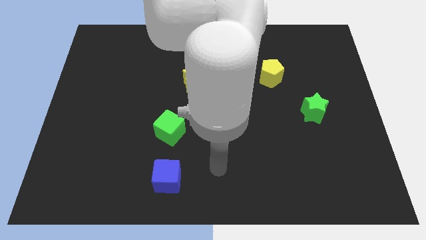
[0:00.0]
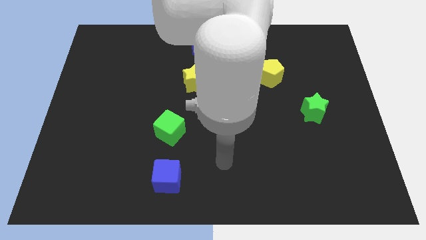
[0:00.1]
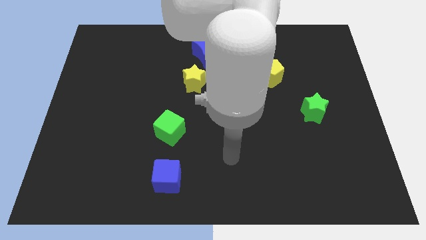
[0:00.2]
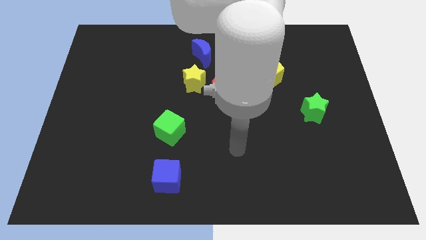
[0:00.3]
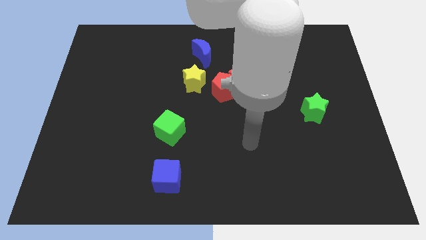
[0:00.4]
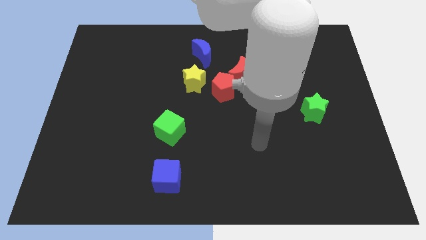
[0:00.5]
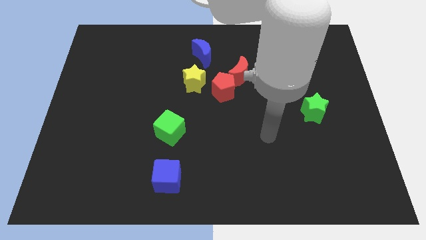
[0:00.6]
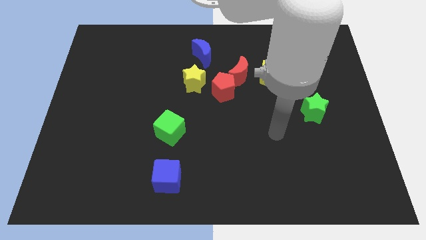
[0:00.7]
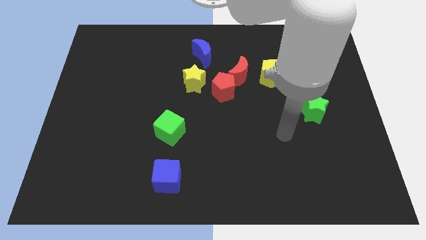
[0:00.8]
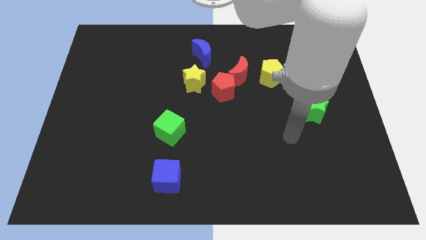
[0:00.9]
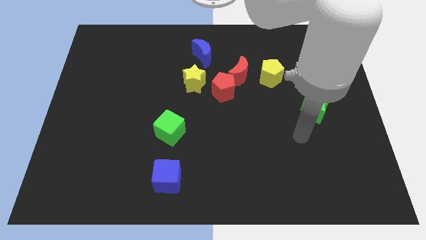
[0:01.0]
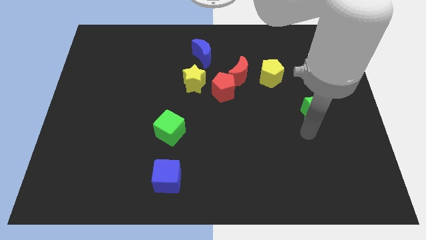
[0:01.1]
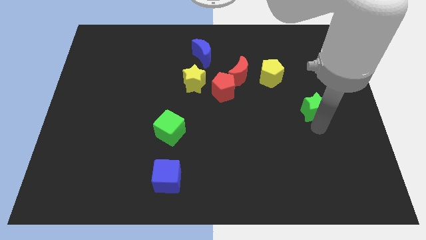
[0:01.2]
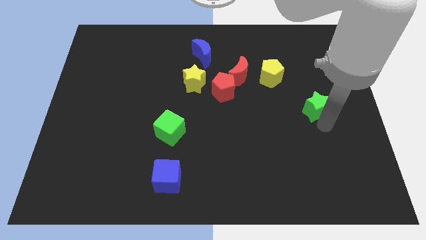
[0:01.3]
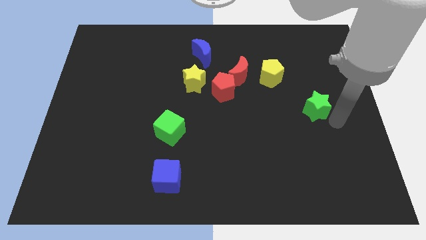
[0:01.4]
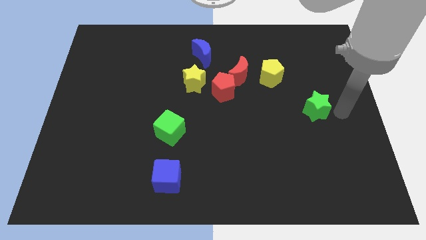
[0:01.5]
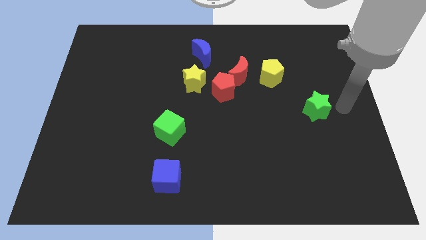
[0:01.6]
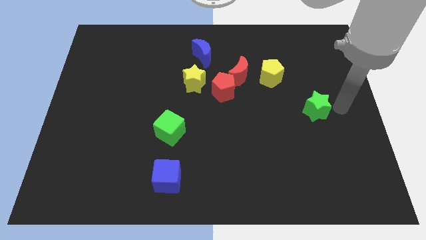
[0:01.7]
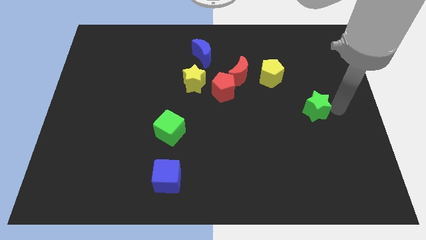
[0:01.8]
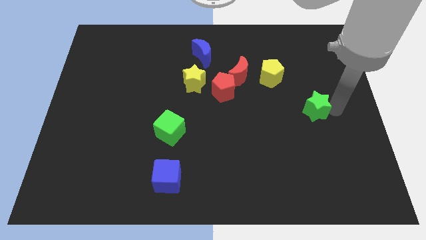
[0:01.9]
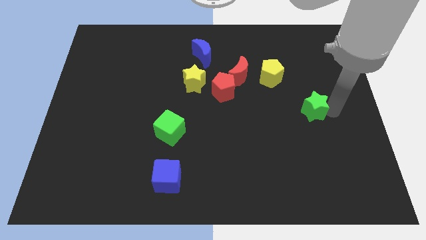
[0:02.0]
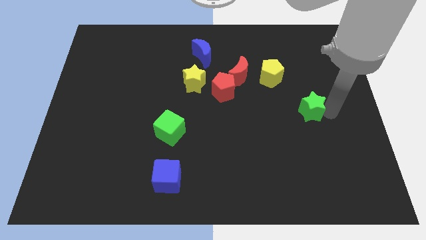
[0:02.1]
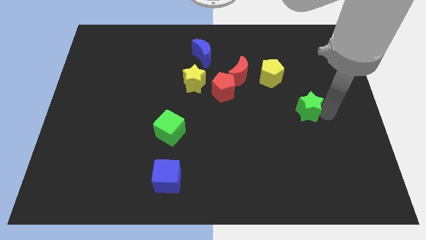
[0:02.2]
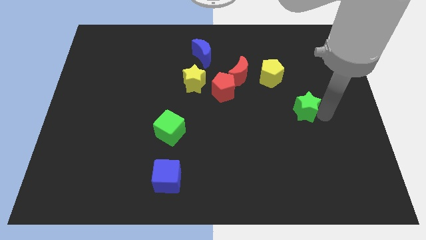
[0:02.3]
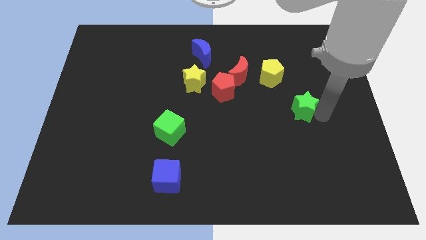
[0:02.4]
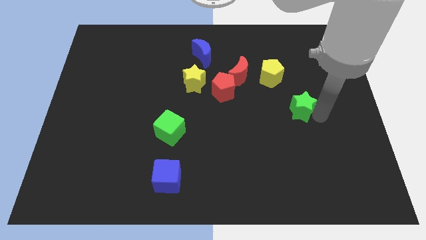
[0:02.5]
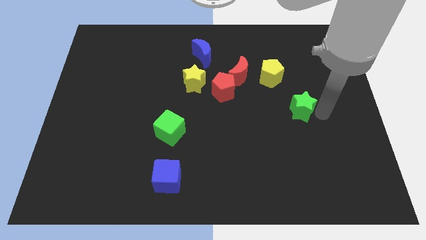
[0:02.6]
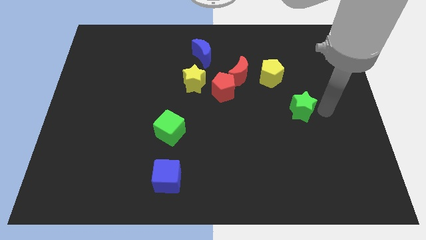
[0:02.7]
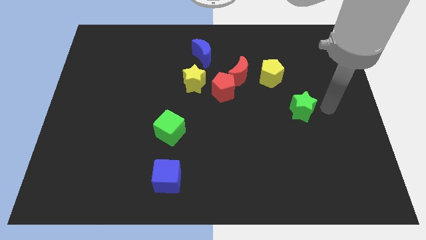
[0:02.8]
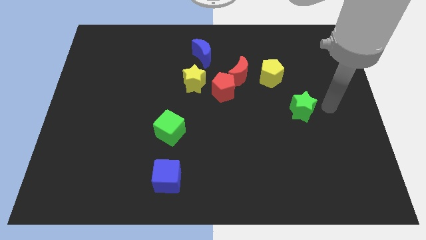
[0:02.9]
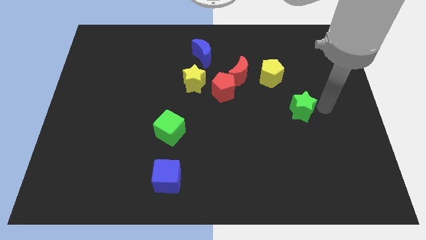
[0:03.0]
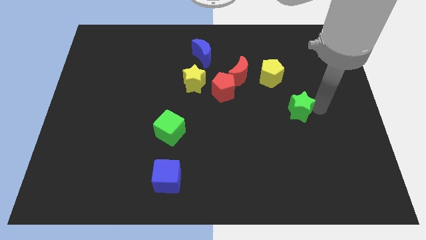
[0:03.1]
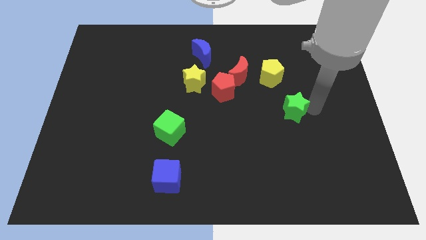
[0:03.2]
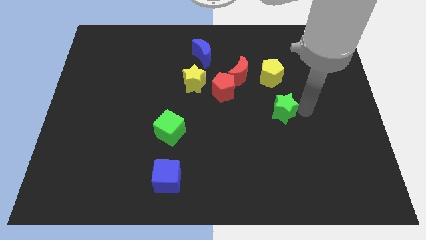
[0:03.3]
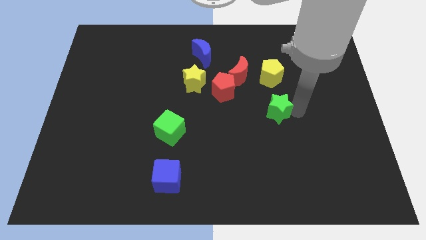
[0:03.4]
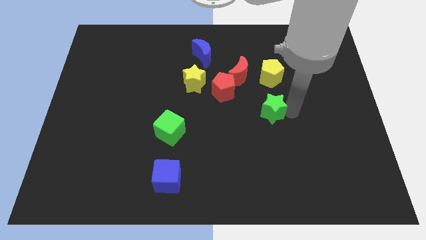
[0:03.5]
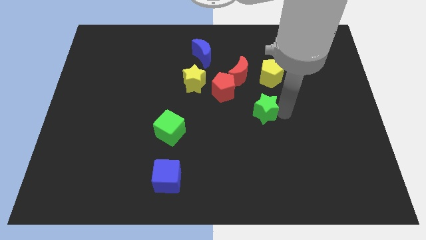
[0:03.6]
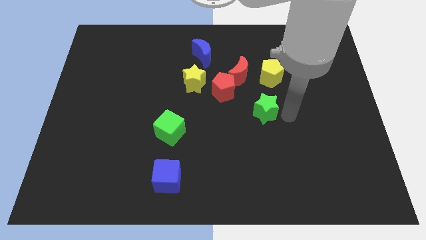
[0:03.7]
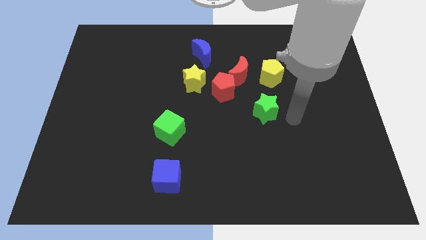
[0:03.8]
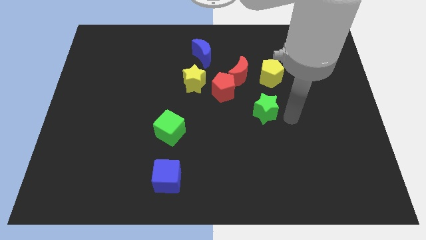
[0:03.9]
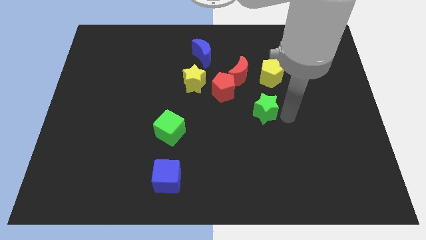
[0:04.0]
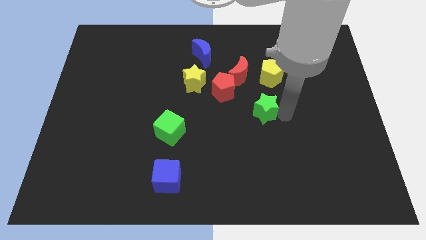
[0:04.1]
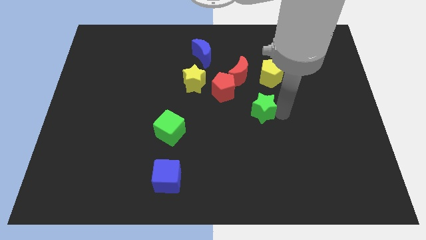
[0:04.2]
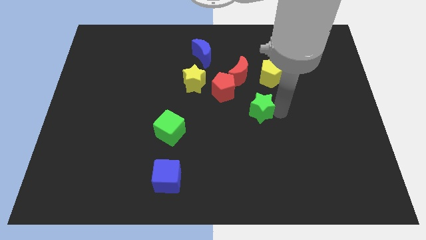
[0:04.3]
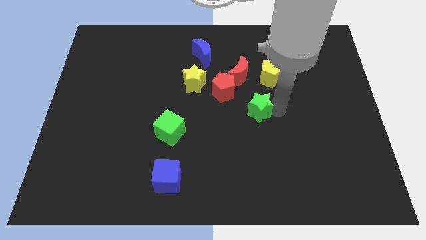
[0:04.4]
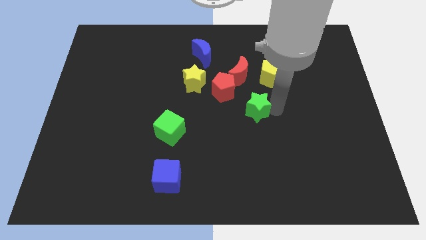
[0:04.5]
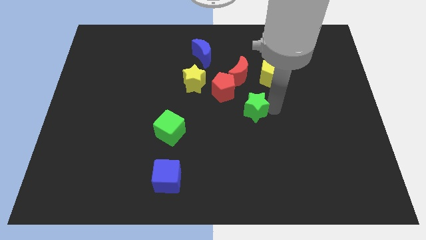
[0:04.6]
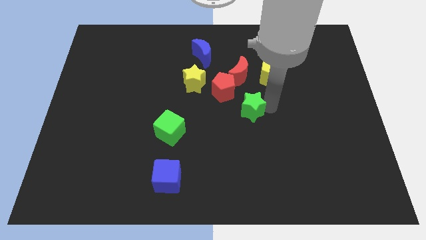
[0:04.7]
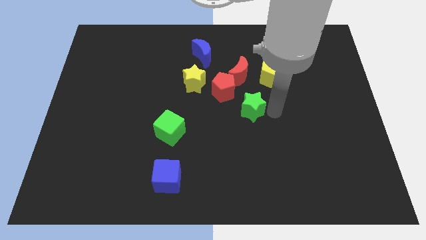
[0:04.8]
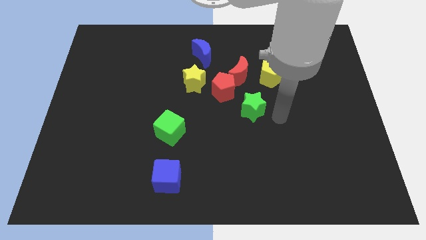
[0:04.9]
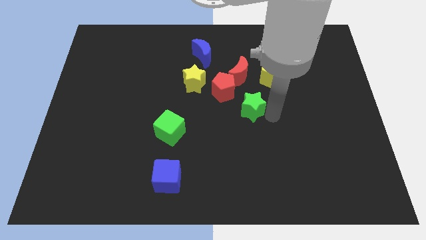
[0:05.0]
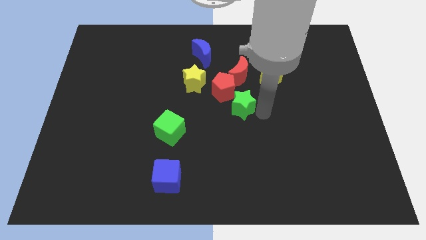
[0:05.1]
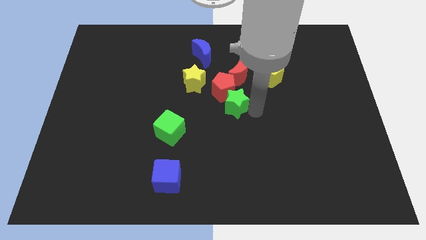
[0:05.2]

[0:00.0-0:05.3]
move the green star to the bottom right side of the yellow star

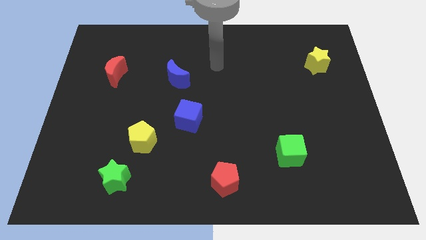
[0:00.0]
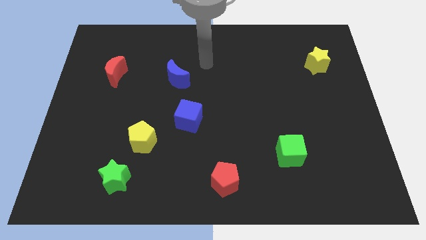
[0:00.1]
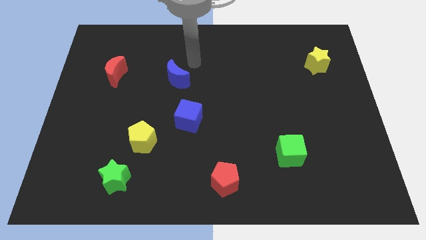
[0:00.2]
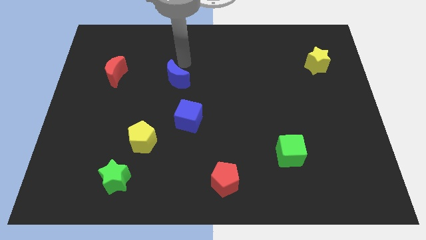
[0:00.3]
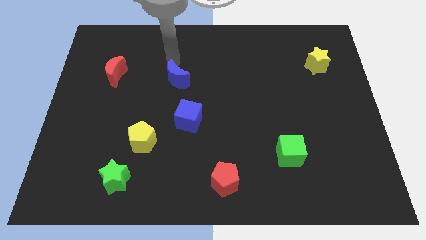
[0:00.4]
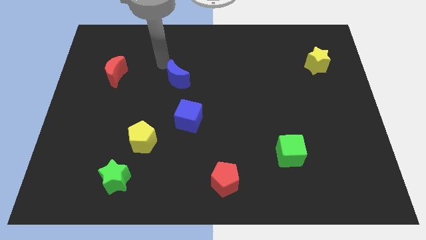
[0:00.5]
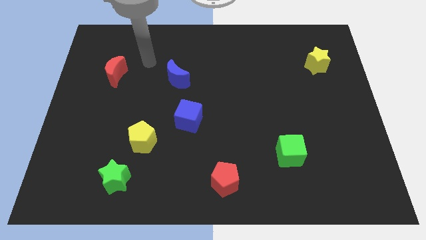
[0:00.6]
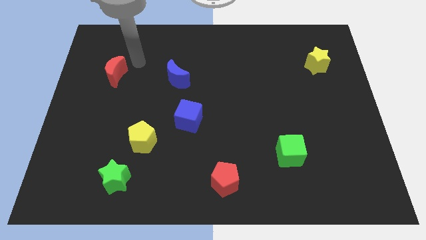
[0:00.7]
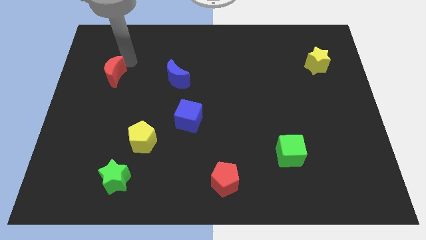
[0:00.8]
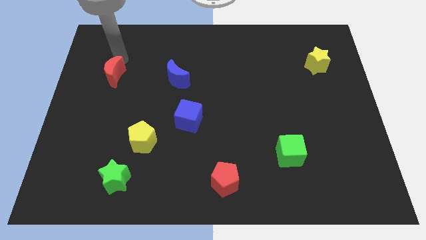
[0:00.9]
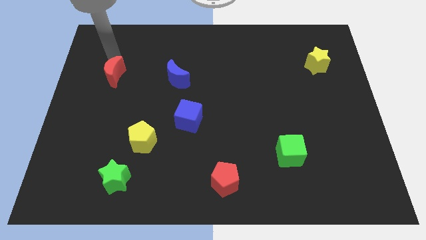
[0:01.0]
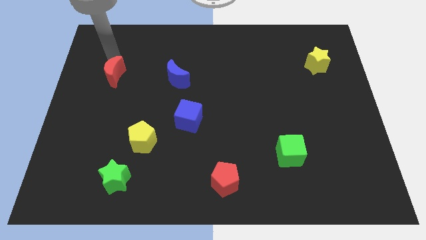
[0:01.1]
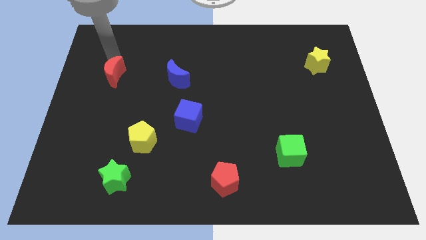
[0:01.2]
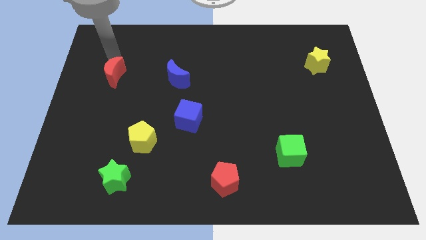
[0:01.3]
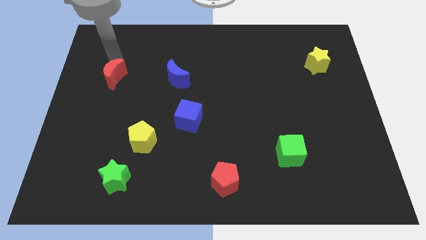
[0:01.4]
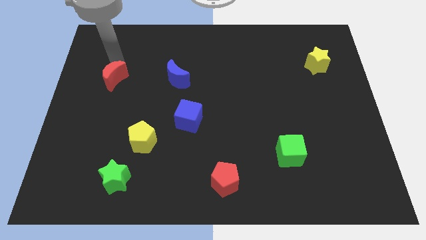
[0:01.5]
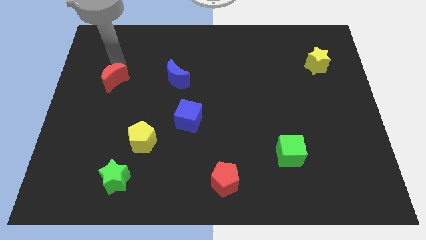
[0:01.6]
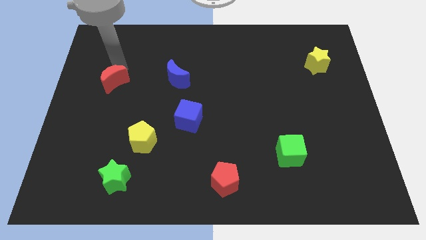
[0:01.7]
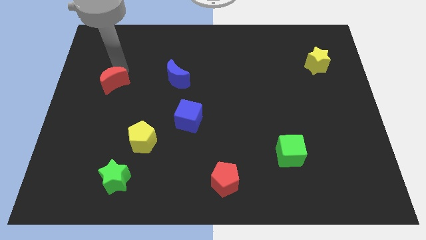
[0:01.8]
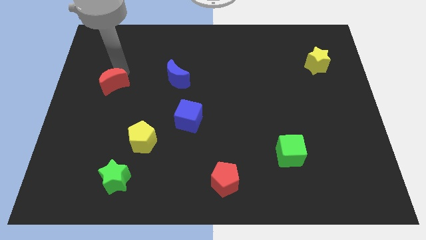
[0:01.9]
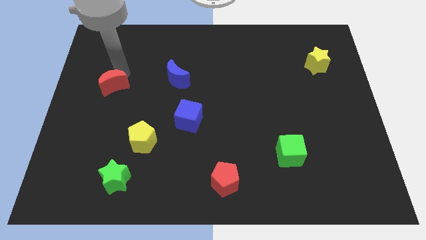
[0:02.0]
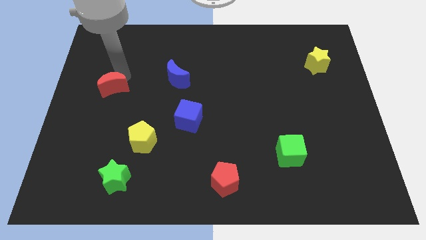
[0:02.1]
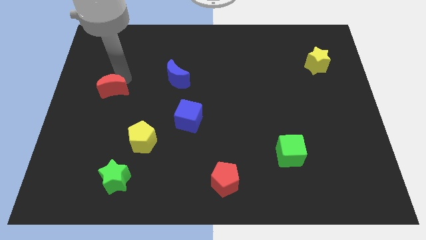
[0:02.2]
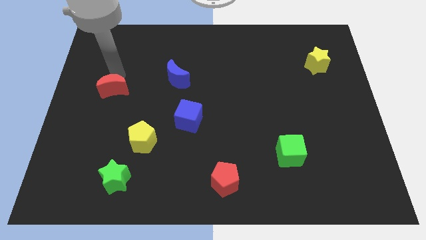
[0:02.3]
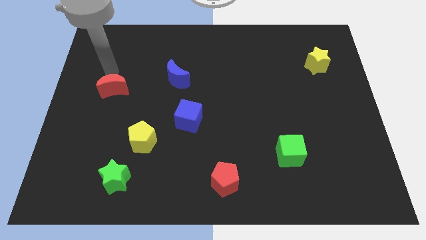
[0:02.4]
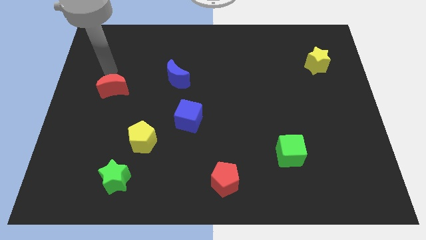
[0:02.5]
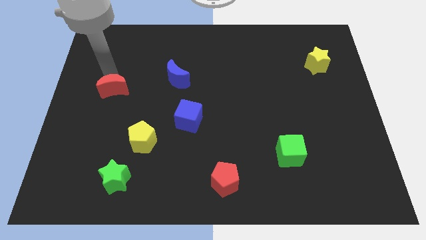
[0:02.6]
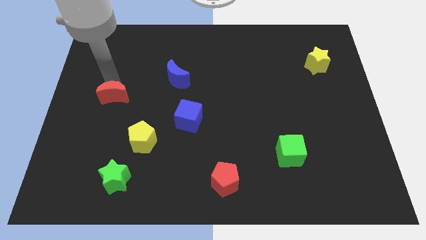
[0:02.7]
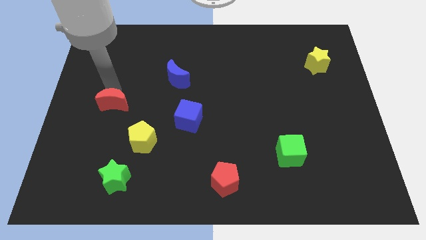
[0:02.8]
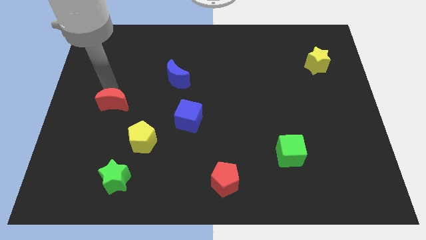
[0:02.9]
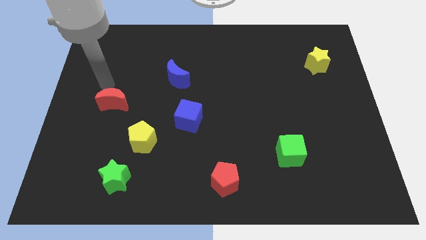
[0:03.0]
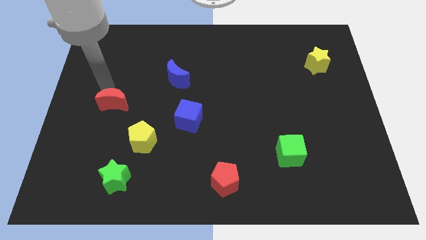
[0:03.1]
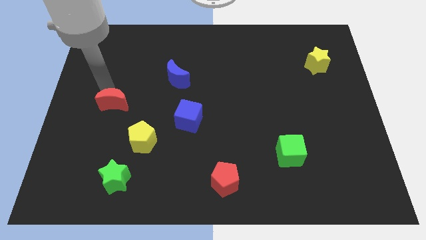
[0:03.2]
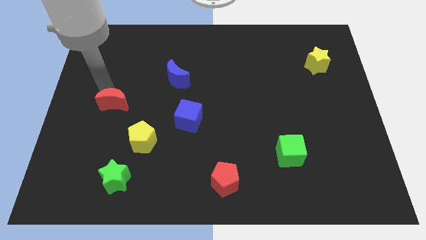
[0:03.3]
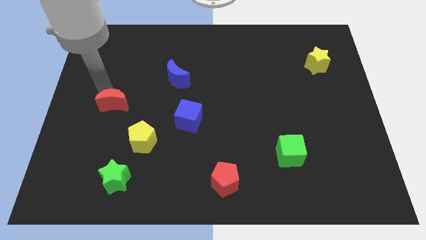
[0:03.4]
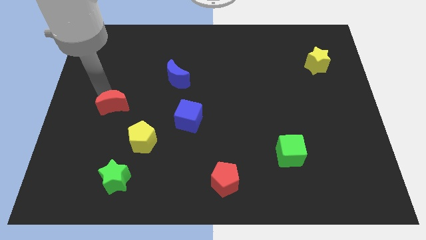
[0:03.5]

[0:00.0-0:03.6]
move the red moon diagonally up and to the left of the yellow pentagon
